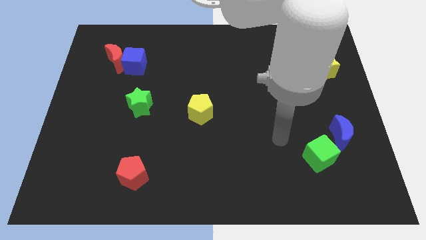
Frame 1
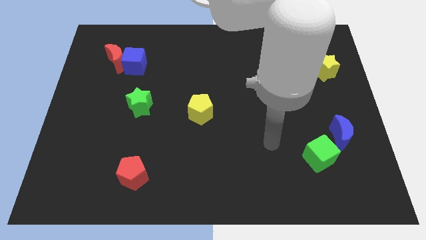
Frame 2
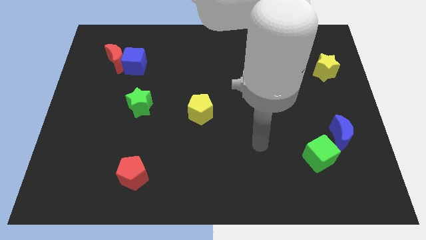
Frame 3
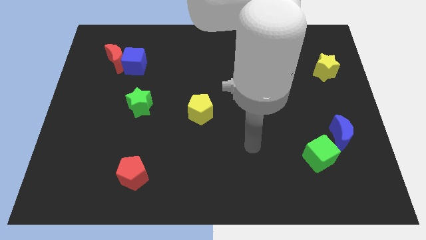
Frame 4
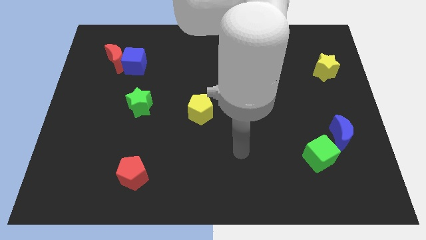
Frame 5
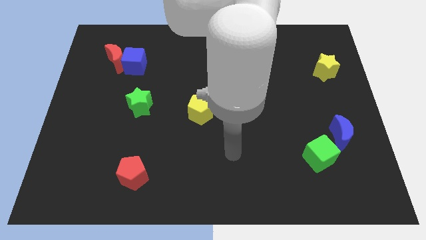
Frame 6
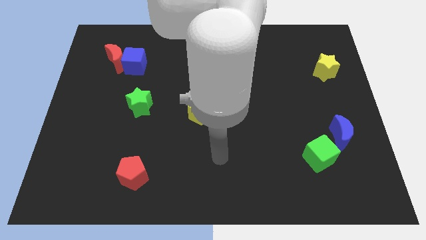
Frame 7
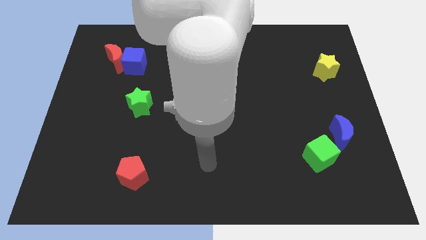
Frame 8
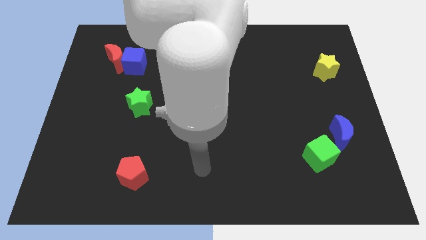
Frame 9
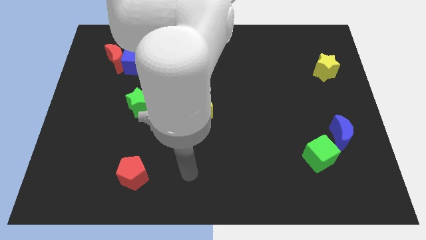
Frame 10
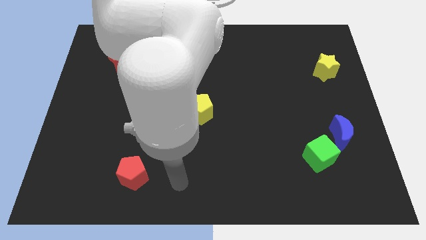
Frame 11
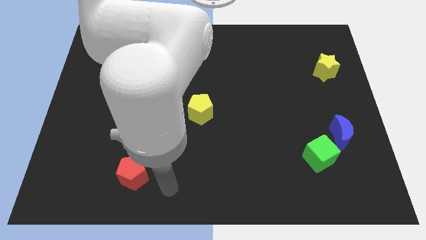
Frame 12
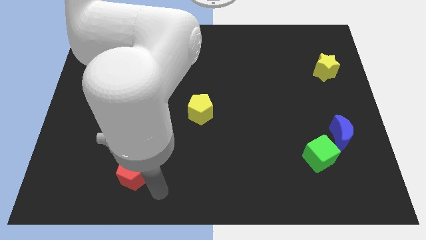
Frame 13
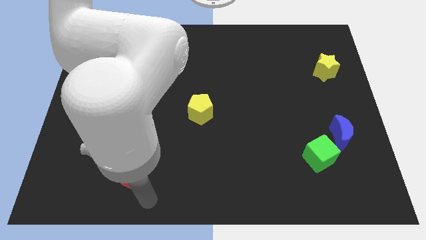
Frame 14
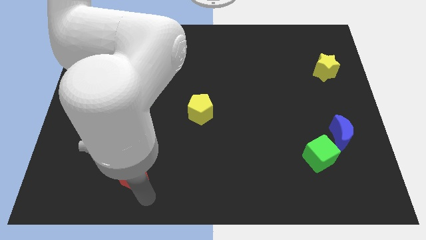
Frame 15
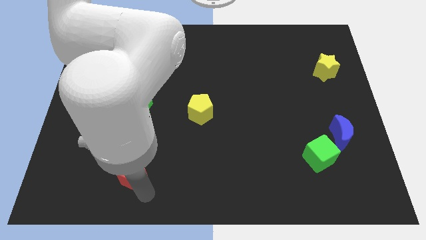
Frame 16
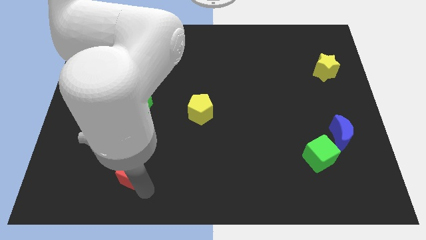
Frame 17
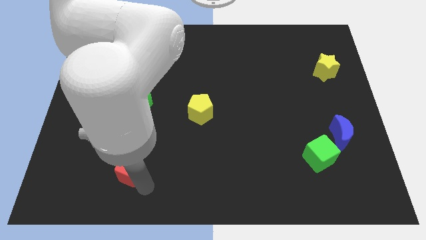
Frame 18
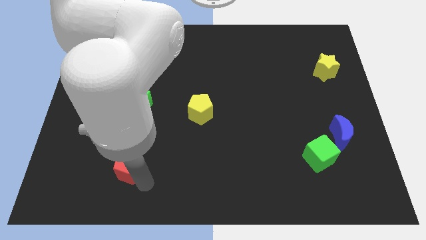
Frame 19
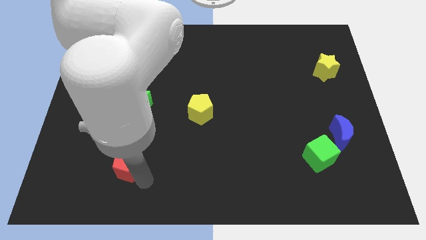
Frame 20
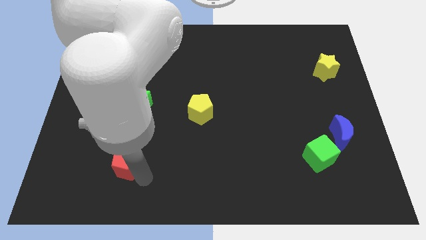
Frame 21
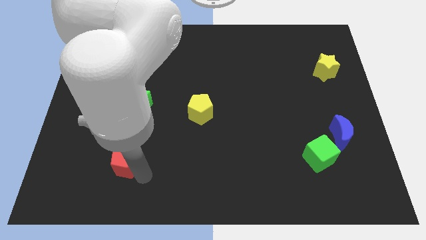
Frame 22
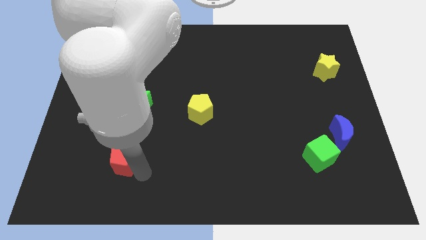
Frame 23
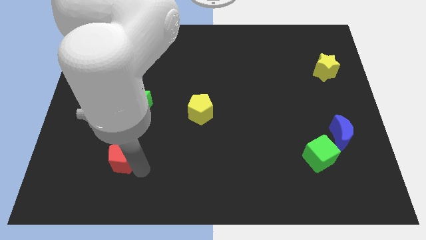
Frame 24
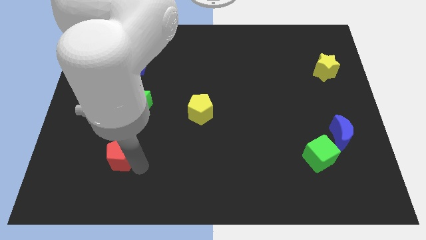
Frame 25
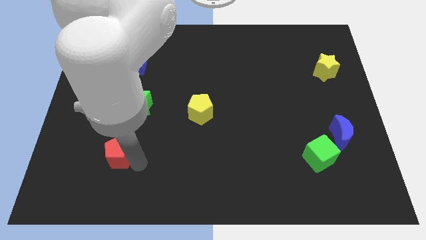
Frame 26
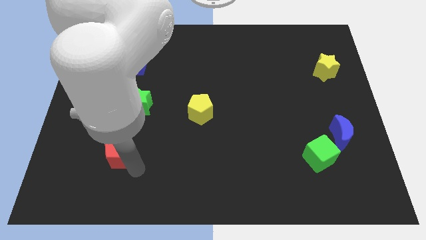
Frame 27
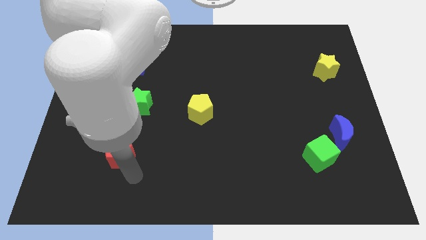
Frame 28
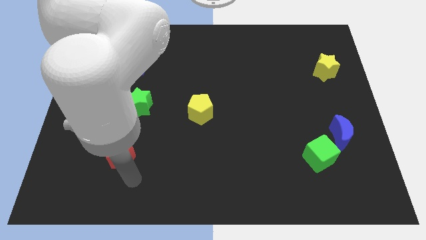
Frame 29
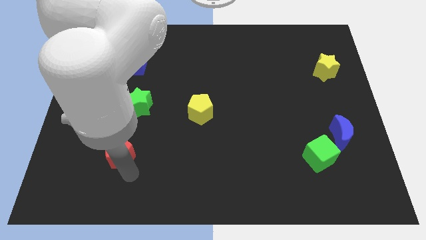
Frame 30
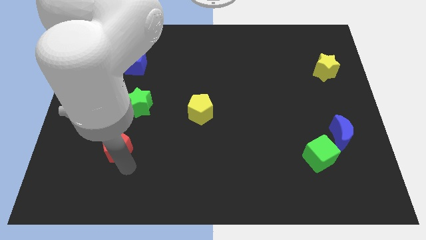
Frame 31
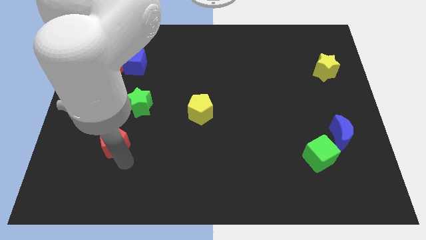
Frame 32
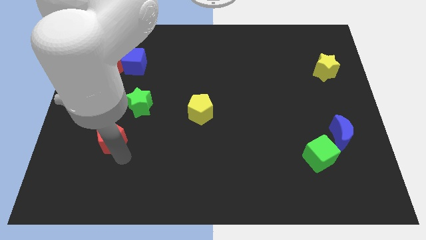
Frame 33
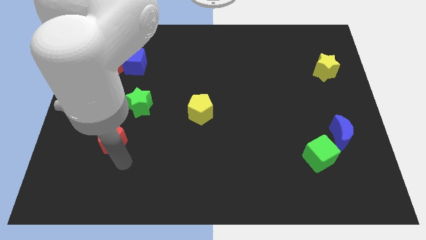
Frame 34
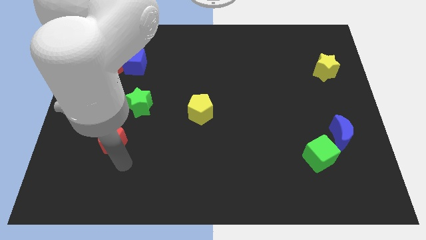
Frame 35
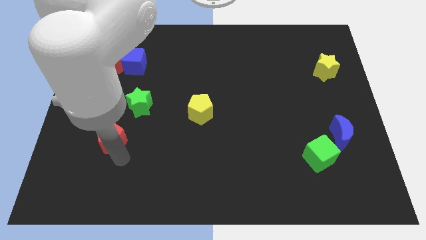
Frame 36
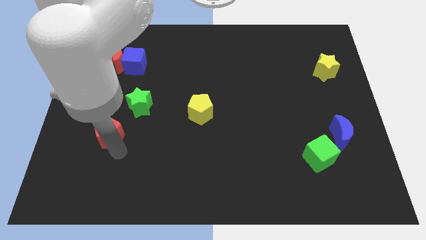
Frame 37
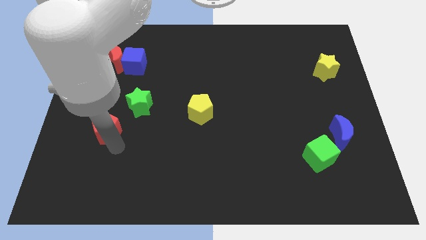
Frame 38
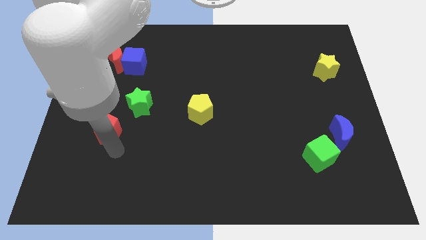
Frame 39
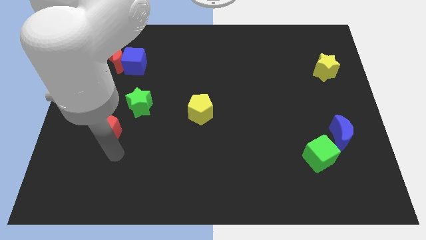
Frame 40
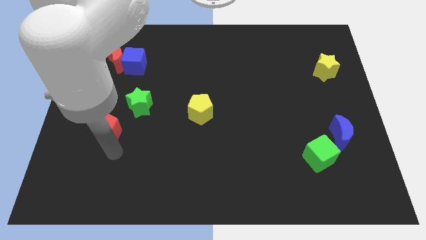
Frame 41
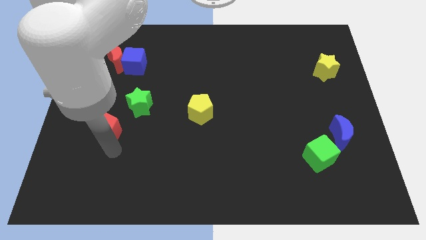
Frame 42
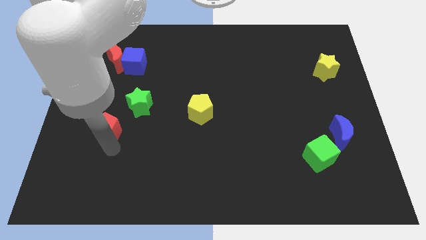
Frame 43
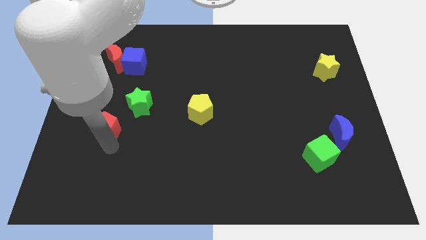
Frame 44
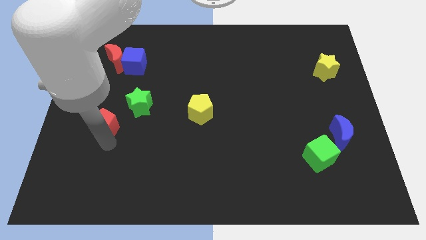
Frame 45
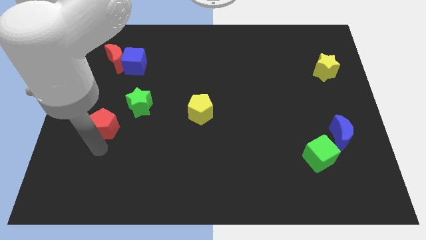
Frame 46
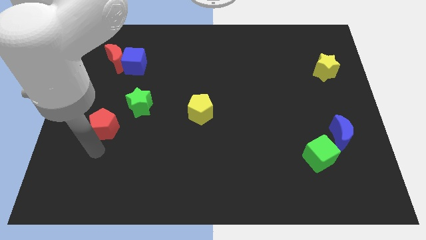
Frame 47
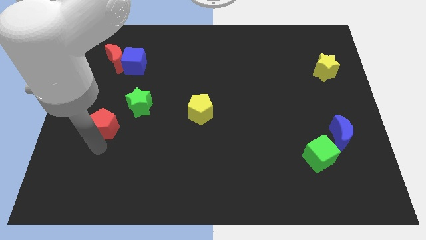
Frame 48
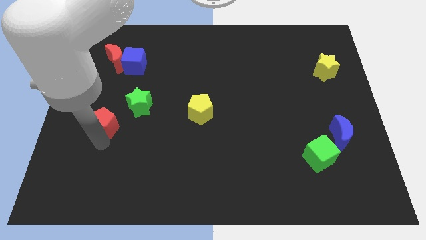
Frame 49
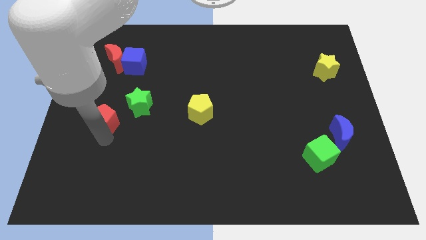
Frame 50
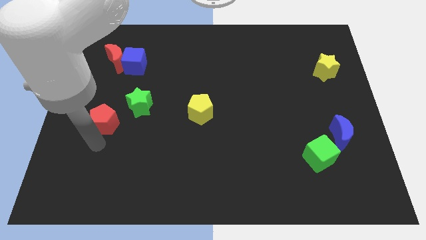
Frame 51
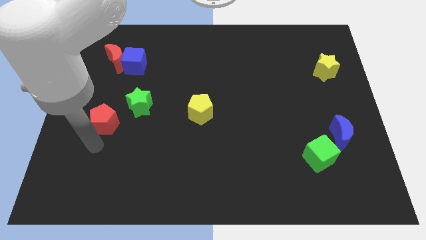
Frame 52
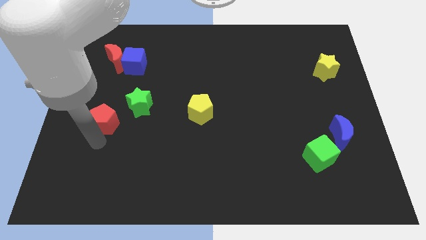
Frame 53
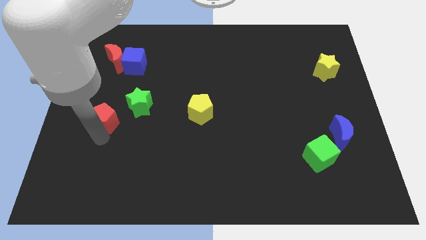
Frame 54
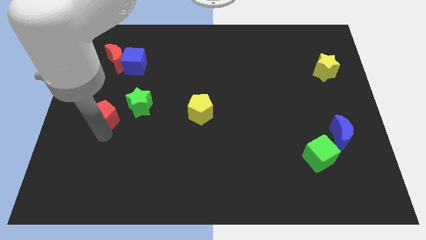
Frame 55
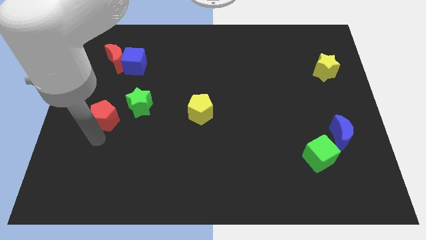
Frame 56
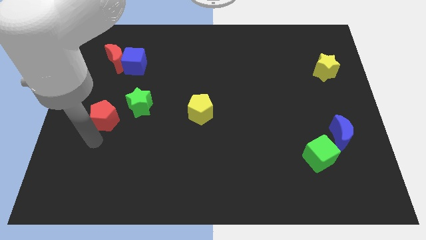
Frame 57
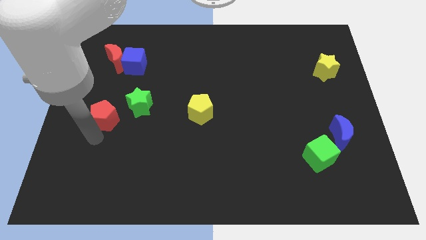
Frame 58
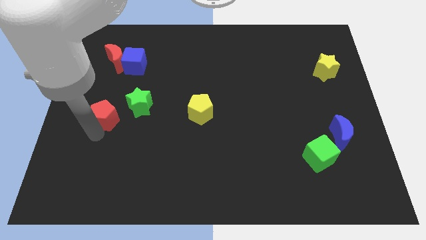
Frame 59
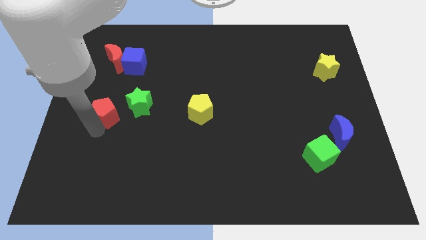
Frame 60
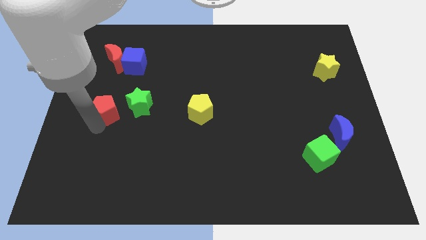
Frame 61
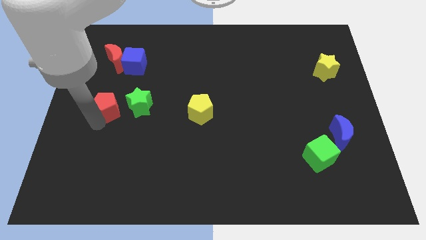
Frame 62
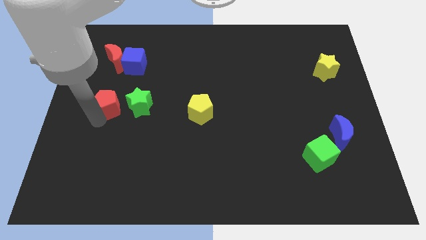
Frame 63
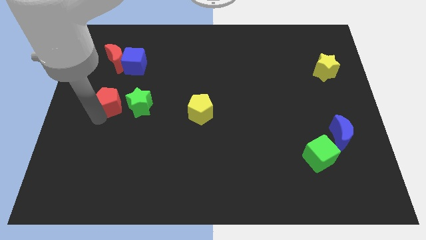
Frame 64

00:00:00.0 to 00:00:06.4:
slide the red pentagon to the top left side of the green star

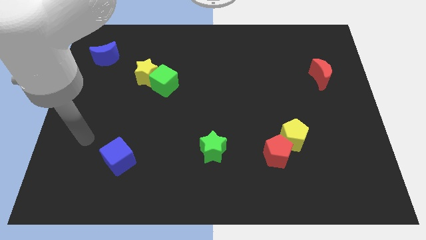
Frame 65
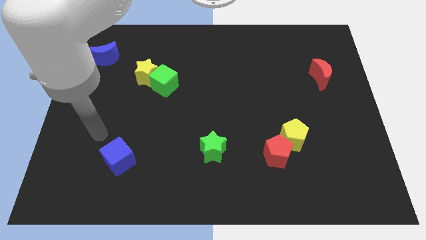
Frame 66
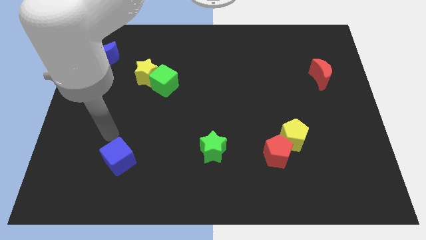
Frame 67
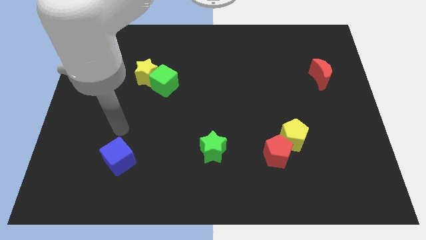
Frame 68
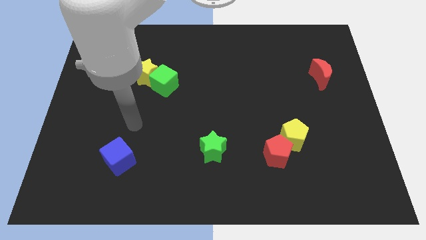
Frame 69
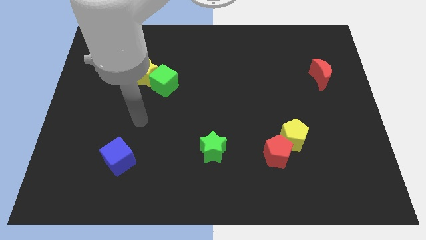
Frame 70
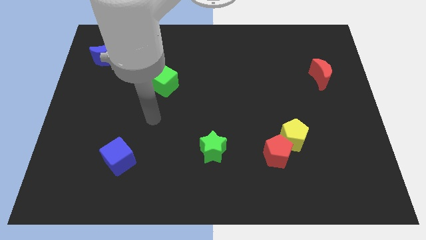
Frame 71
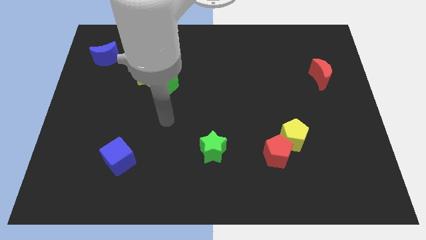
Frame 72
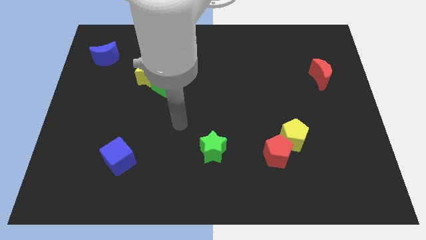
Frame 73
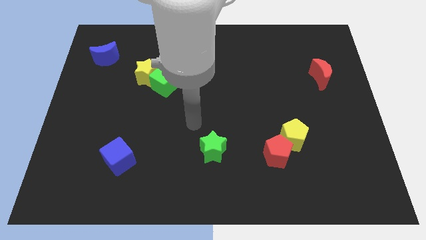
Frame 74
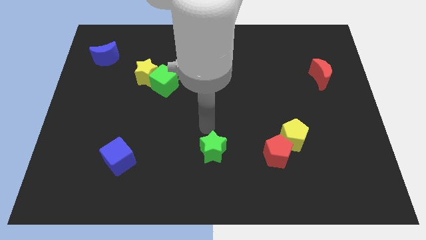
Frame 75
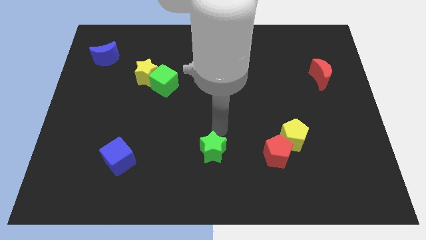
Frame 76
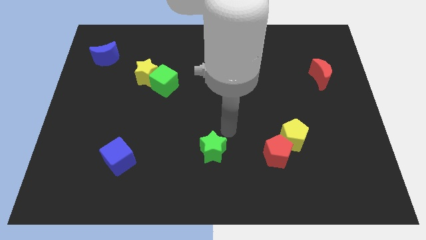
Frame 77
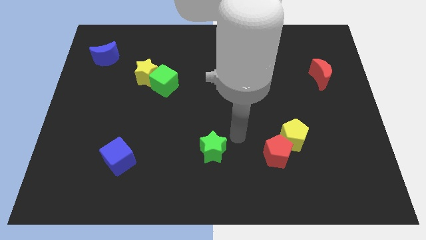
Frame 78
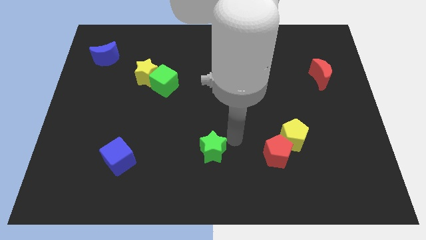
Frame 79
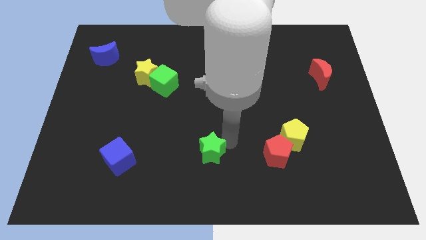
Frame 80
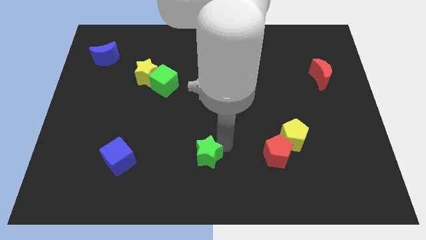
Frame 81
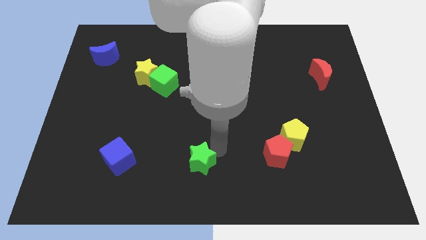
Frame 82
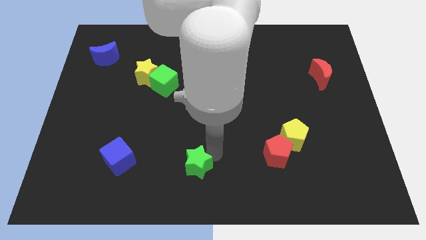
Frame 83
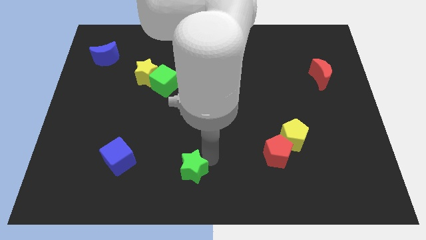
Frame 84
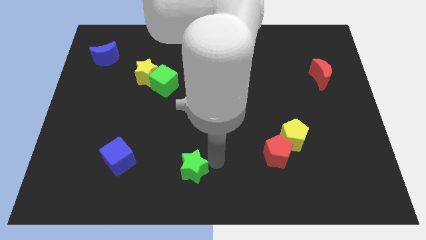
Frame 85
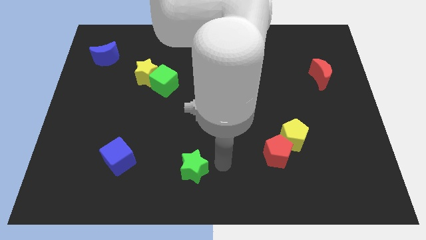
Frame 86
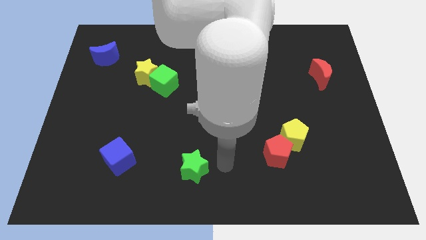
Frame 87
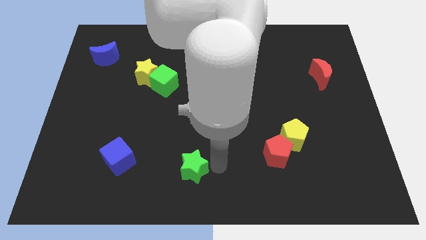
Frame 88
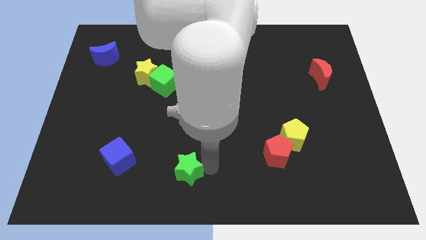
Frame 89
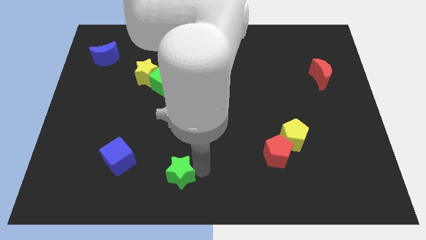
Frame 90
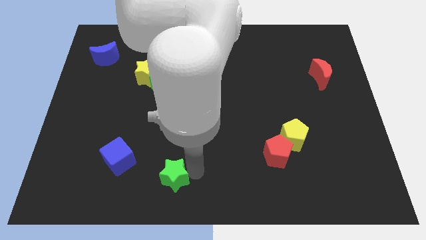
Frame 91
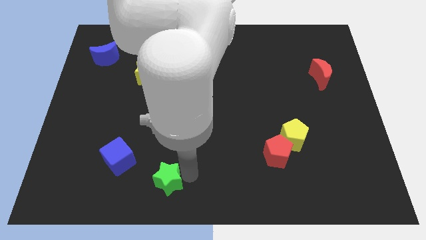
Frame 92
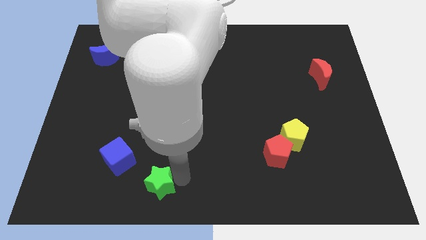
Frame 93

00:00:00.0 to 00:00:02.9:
slide the green star to the bottom right side of the blue cube
